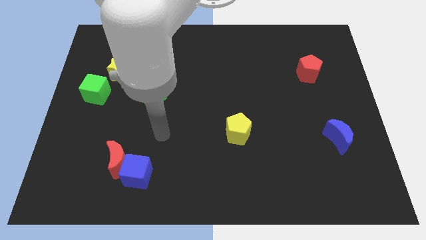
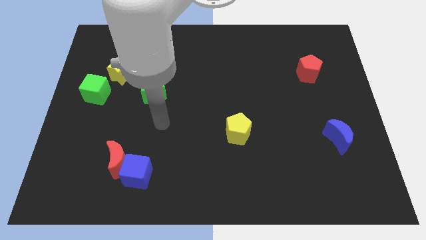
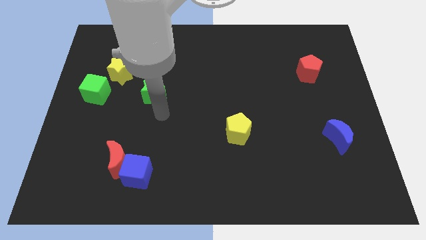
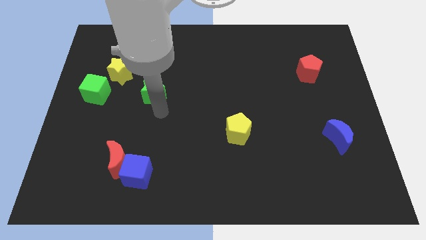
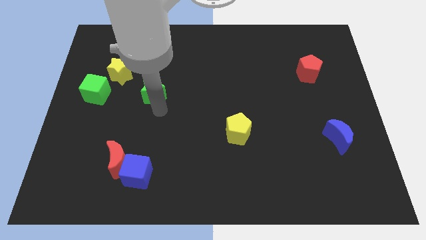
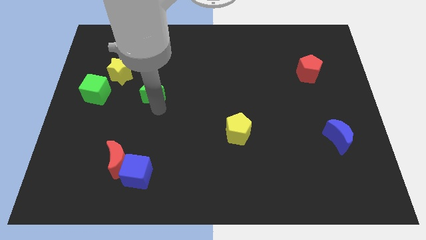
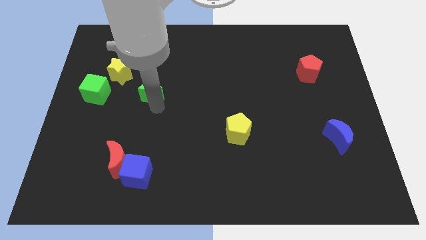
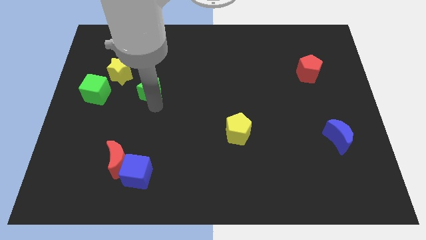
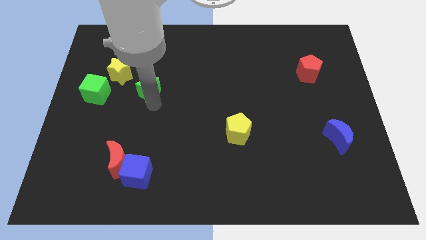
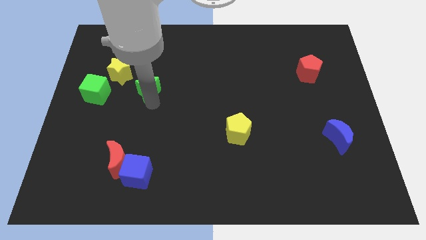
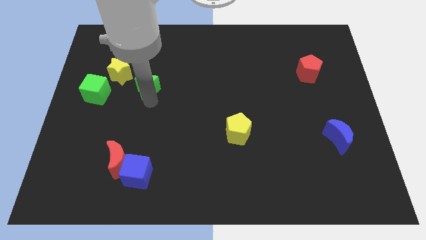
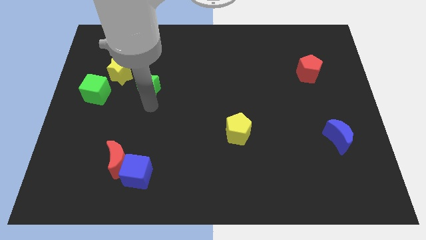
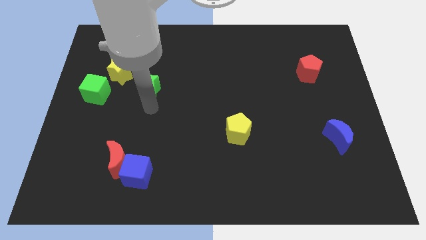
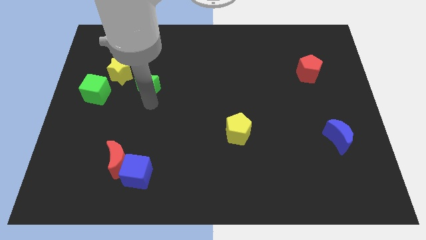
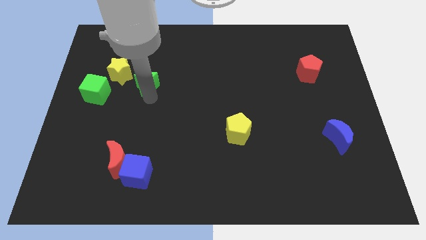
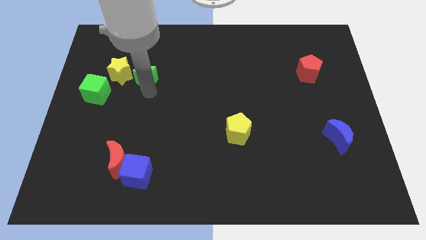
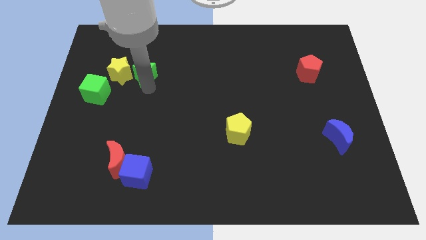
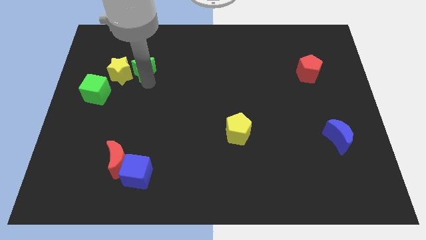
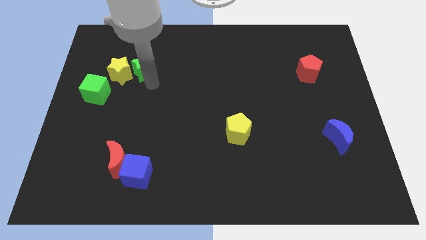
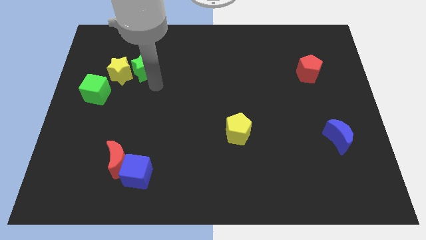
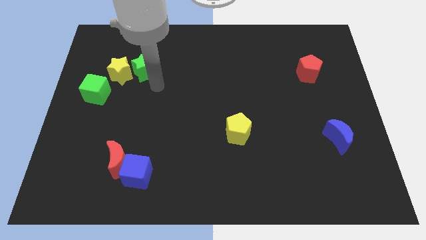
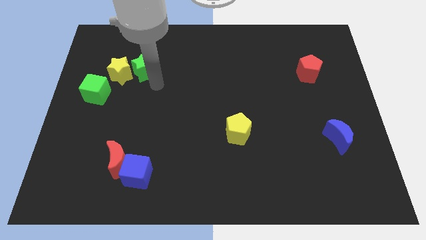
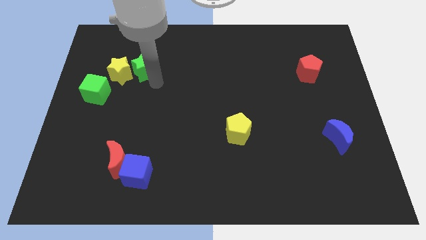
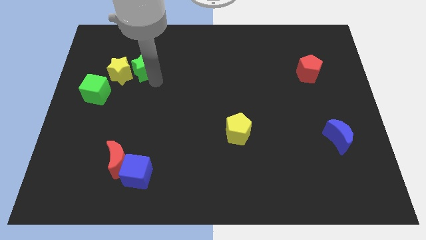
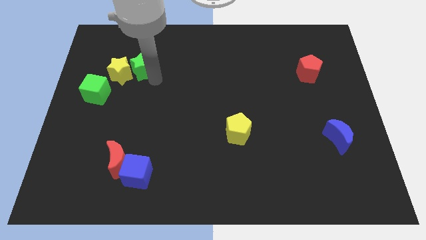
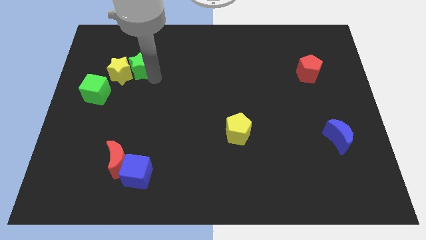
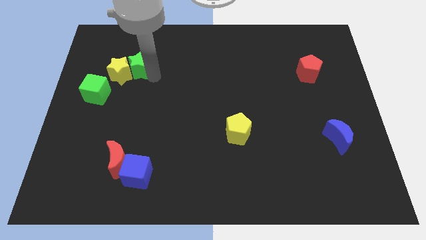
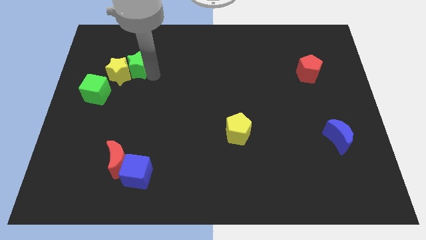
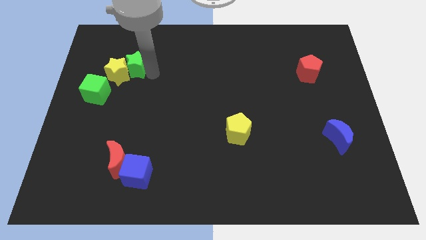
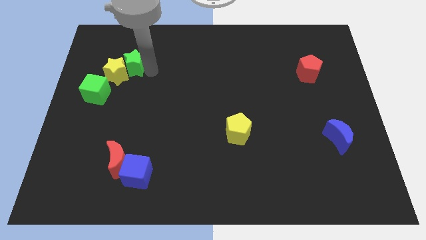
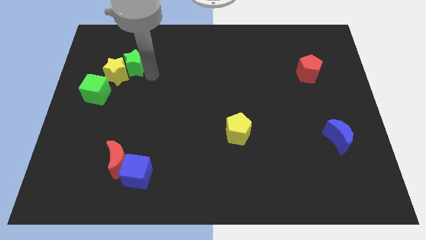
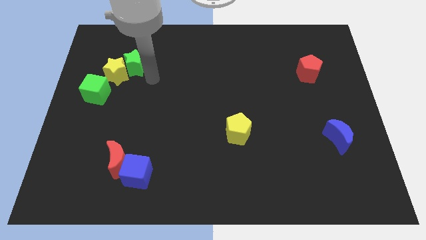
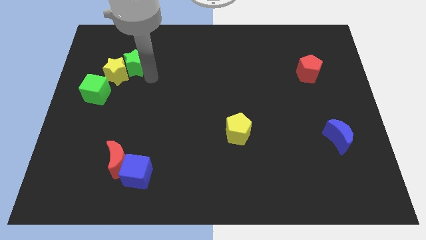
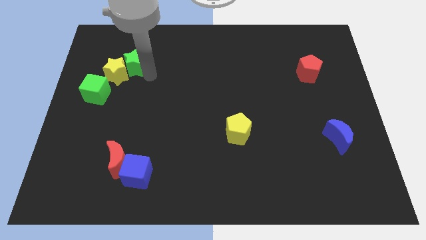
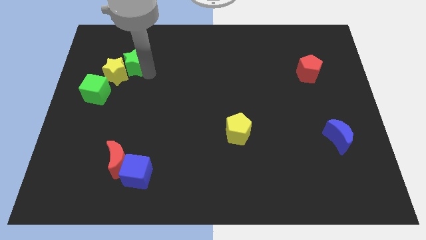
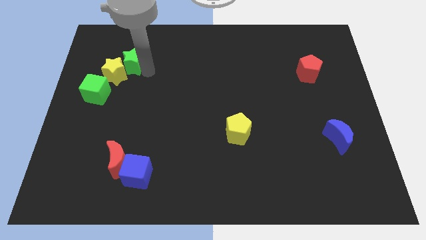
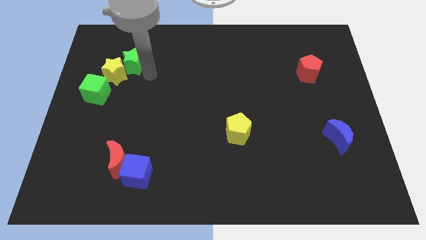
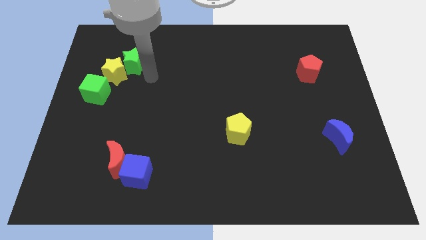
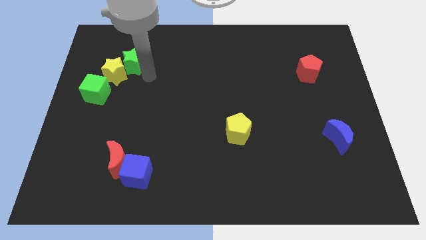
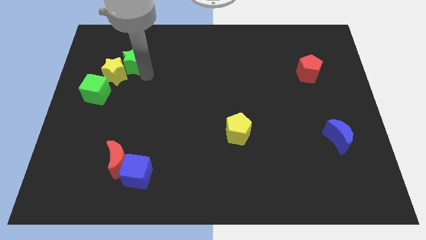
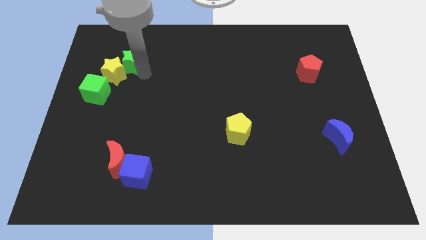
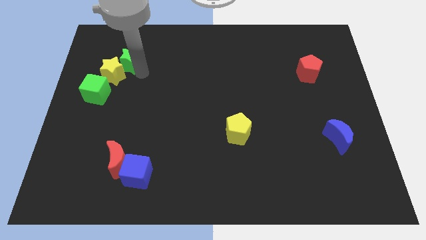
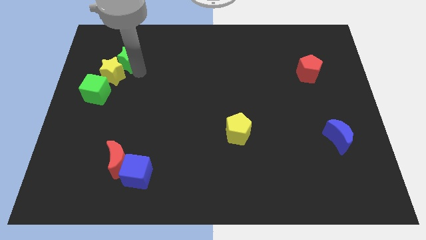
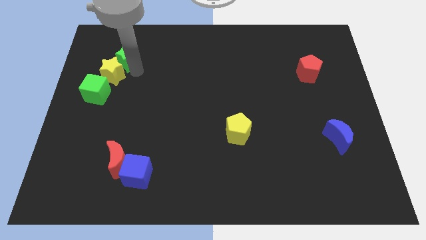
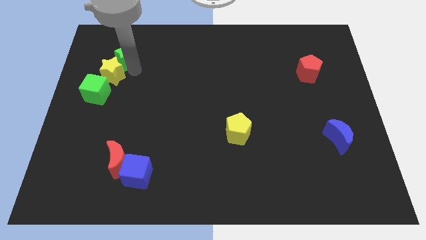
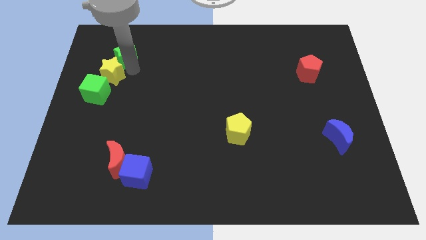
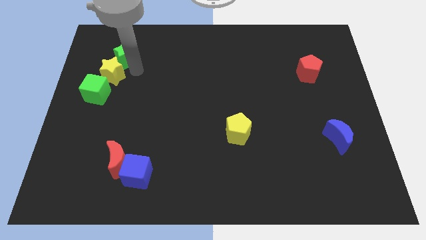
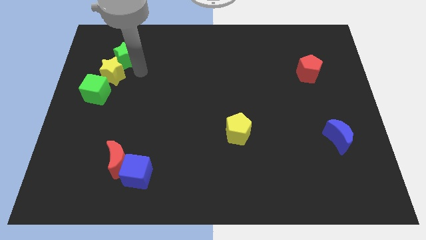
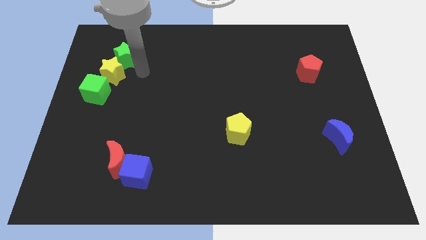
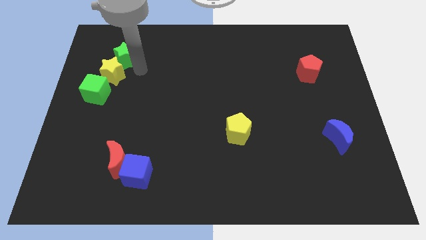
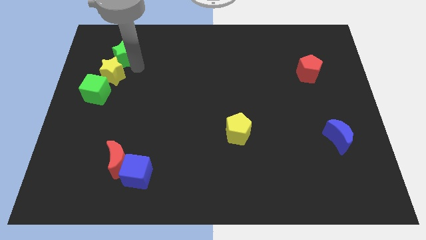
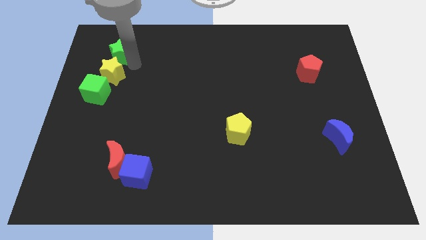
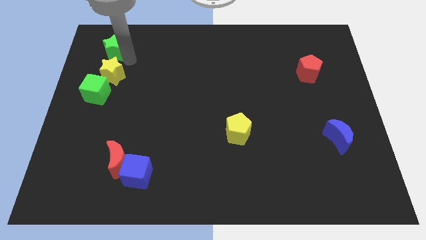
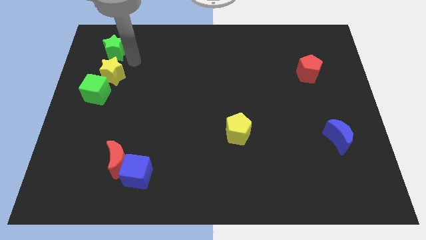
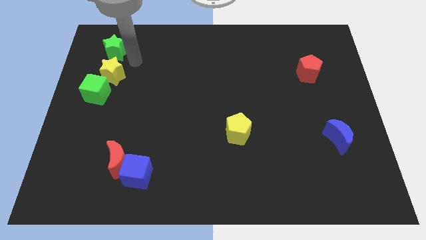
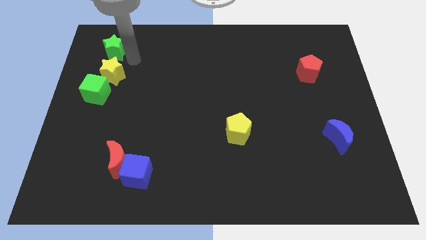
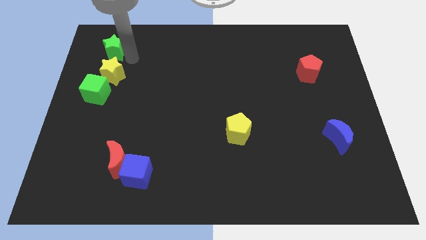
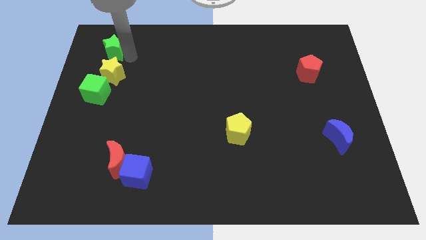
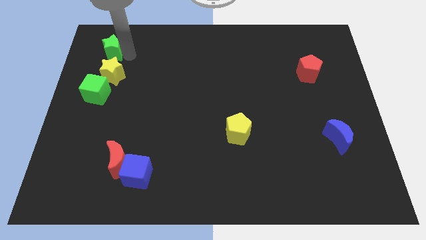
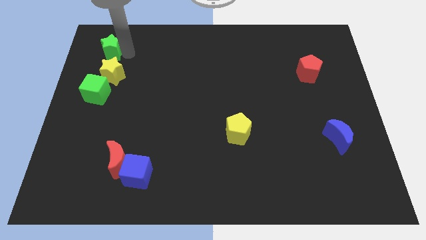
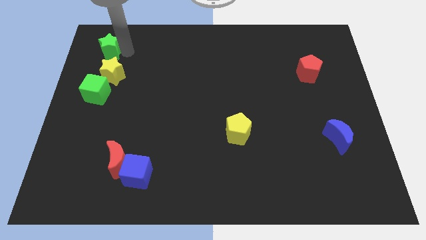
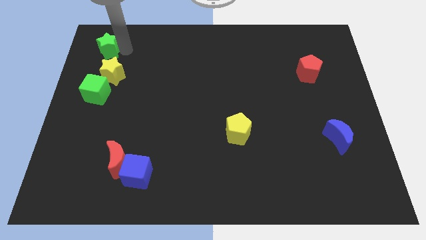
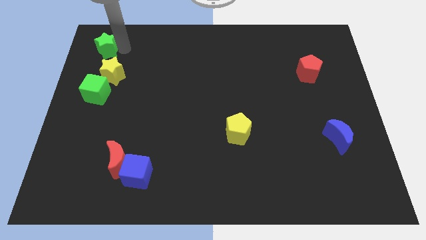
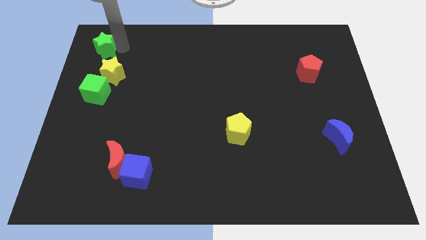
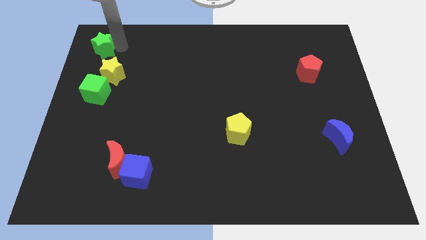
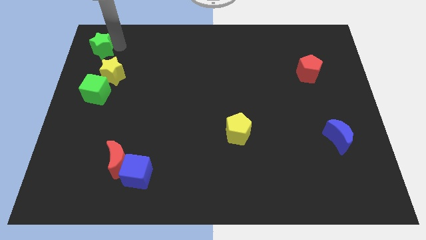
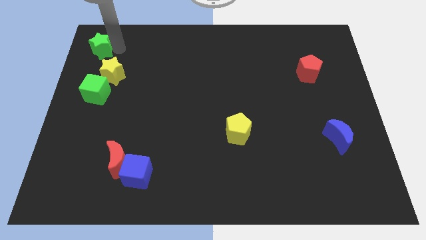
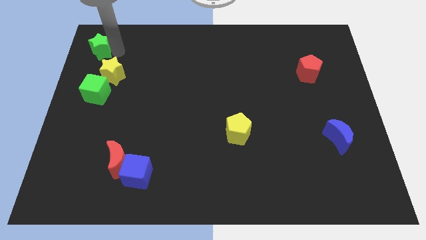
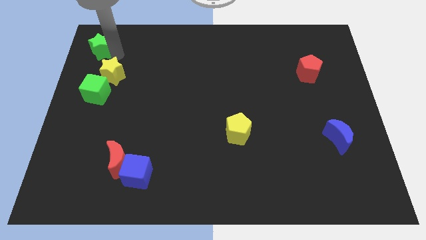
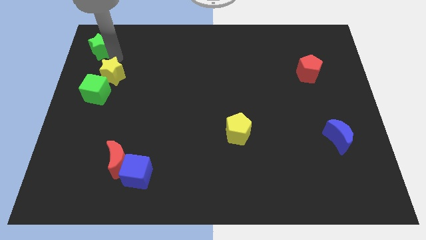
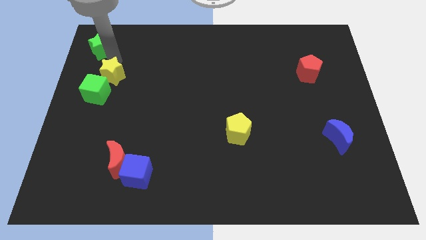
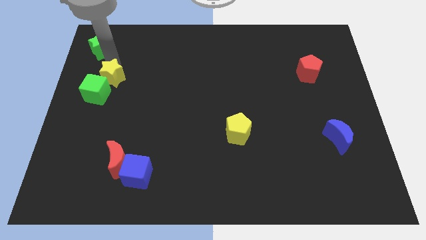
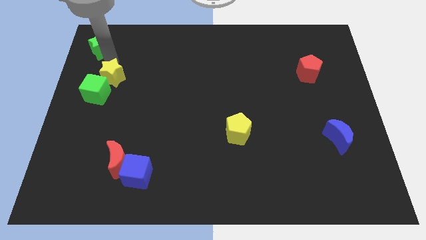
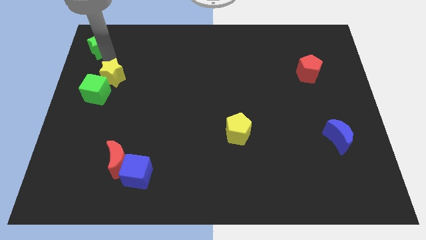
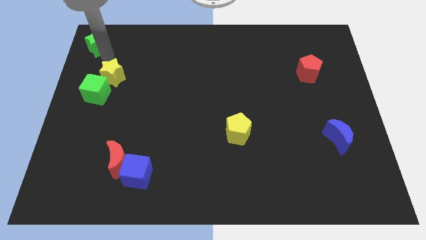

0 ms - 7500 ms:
push the green star to the top left corner

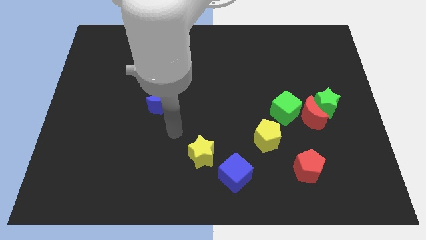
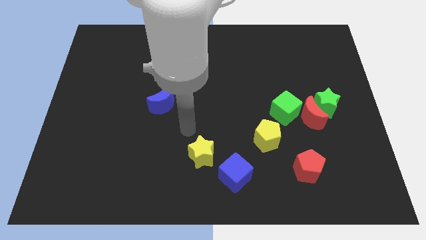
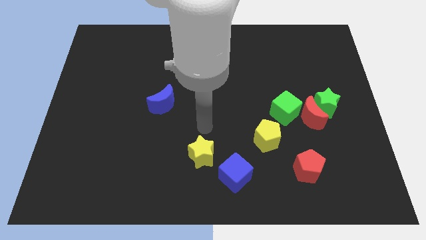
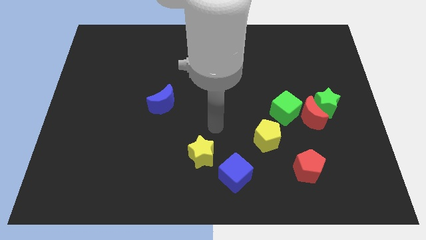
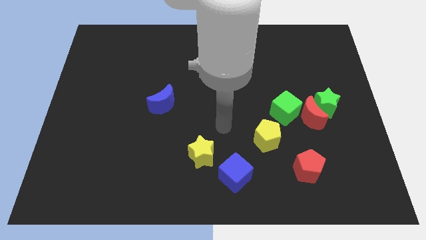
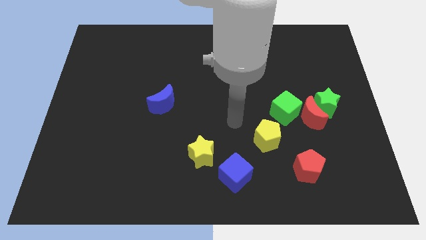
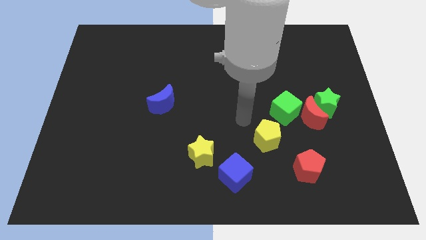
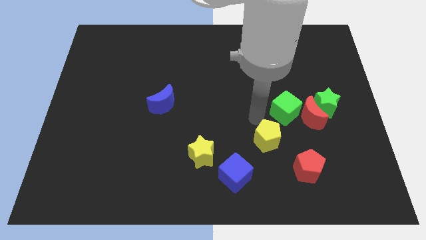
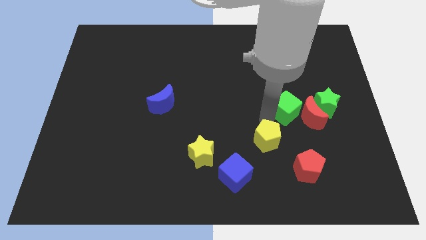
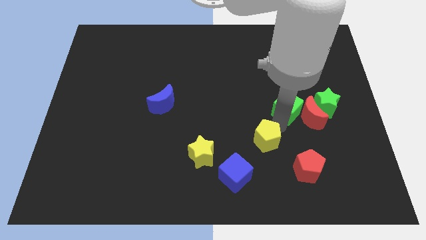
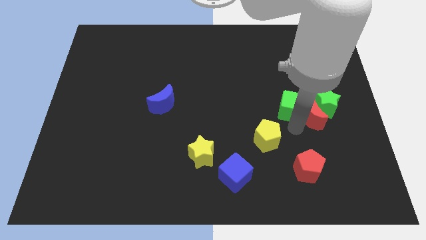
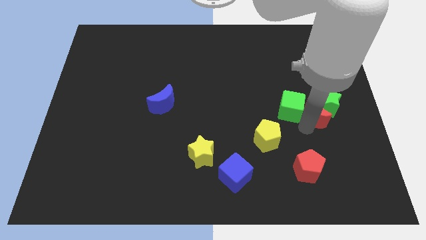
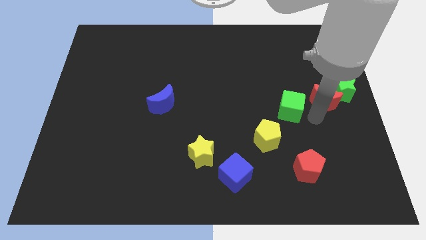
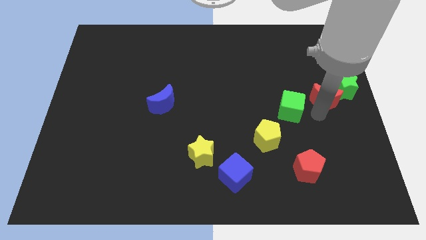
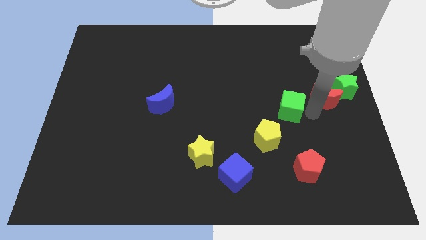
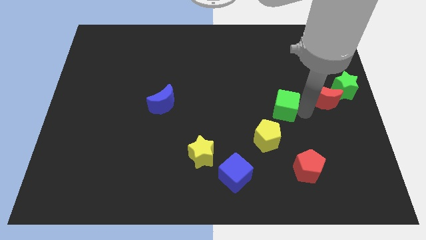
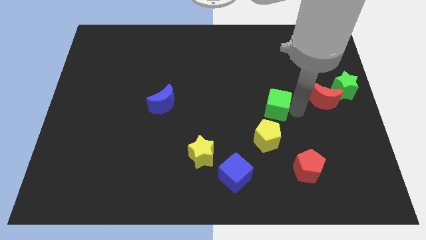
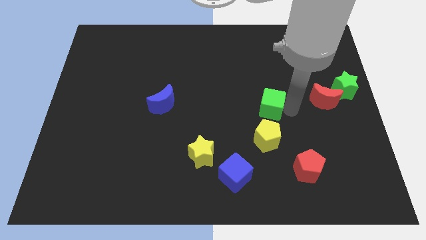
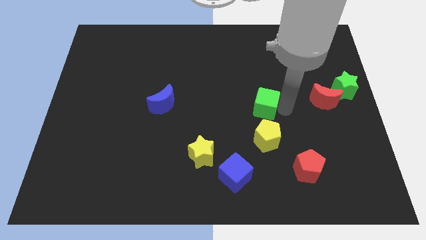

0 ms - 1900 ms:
put the green cube to the center
